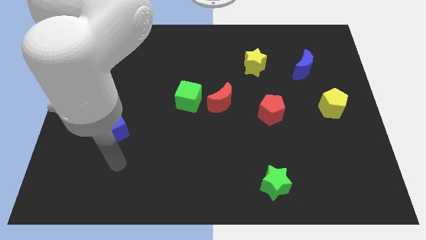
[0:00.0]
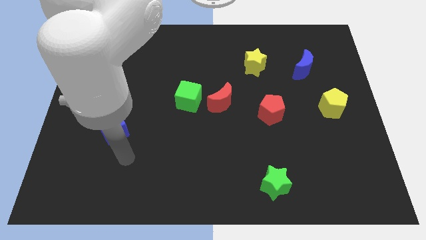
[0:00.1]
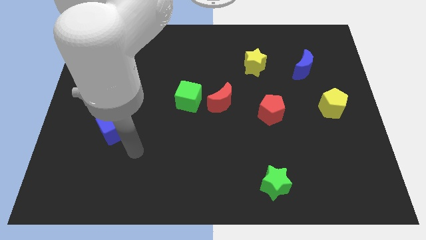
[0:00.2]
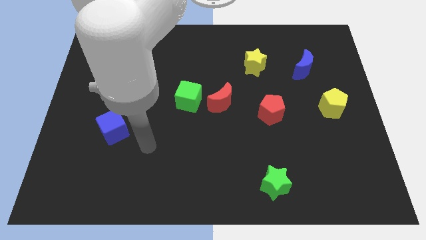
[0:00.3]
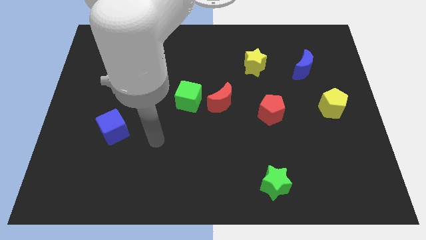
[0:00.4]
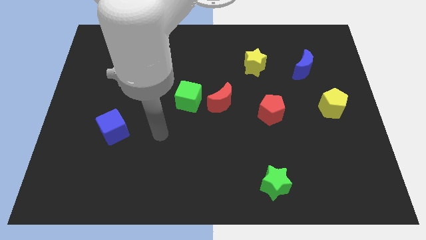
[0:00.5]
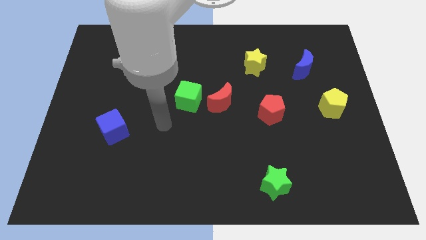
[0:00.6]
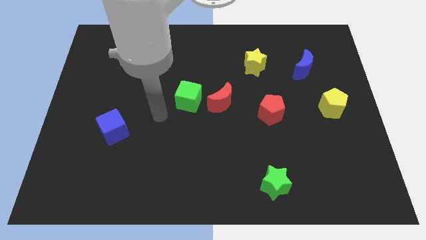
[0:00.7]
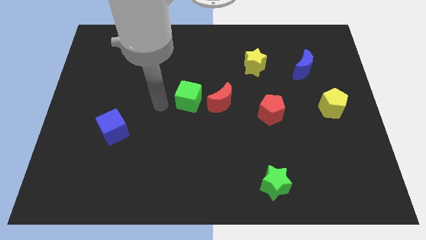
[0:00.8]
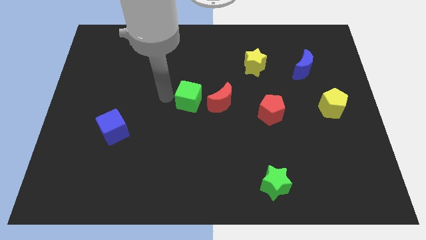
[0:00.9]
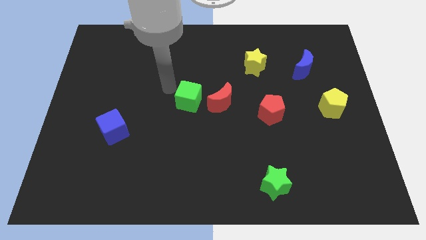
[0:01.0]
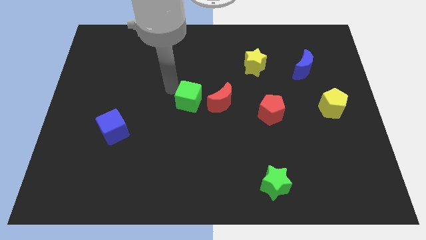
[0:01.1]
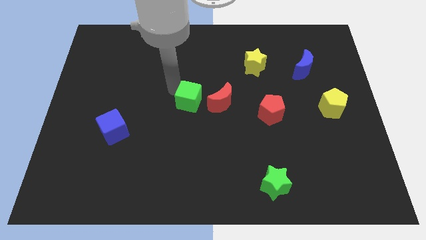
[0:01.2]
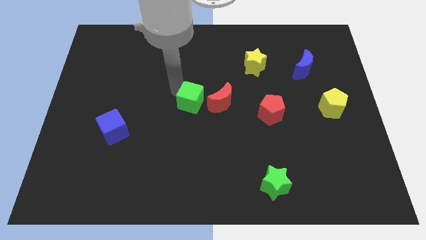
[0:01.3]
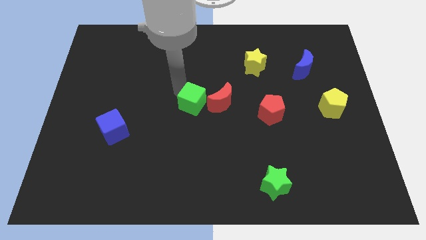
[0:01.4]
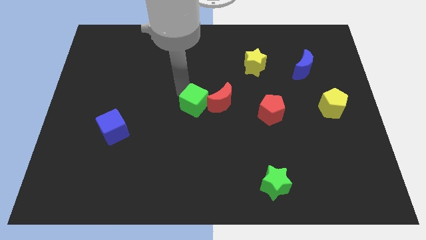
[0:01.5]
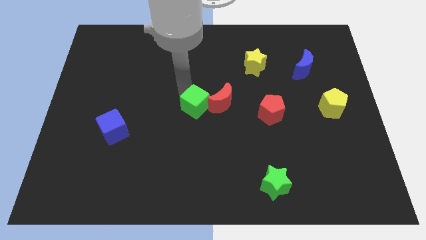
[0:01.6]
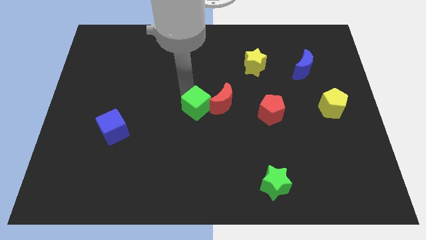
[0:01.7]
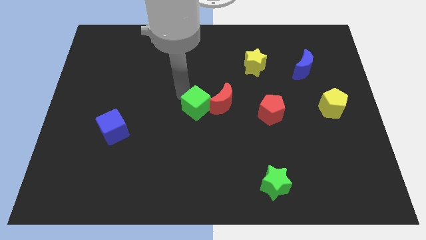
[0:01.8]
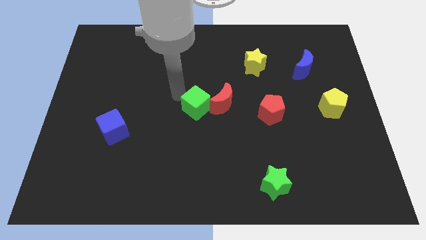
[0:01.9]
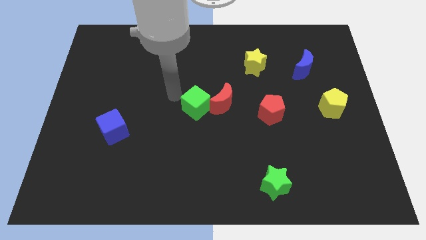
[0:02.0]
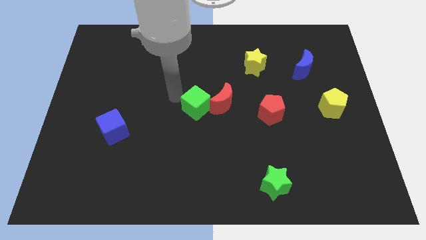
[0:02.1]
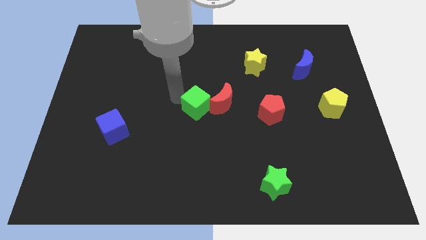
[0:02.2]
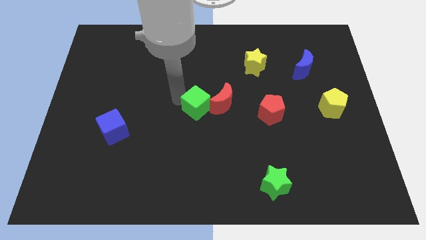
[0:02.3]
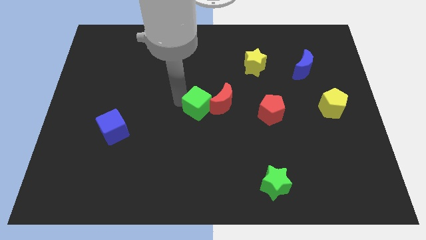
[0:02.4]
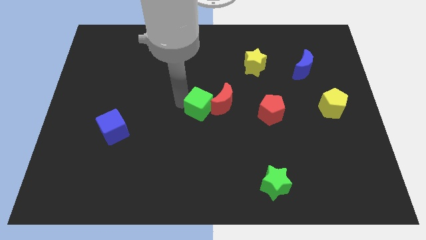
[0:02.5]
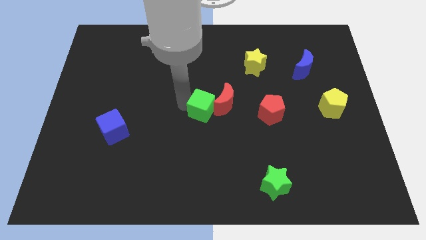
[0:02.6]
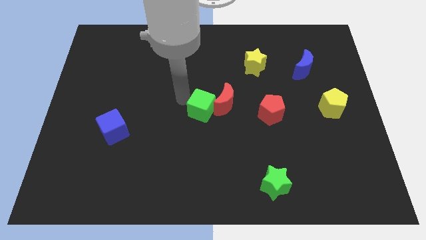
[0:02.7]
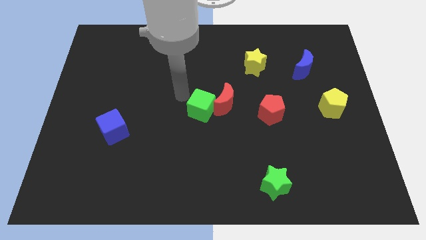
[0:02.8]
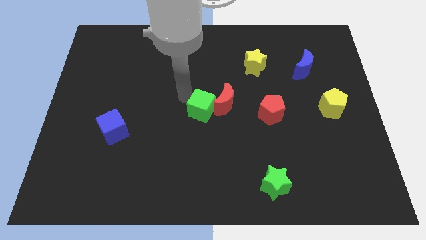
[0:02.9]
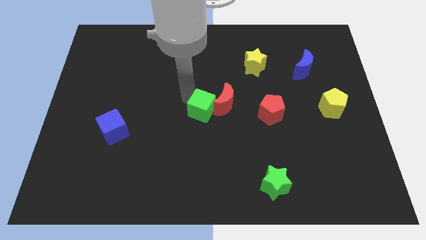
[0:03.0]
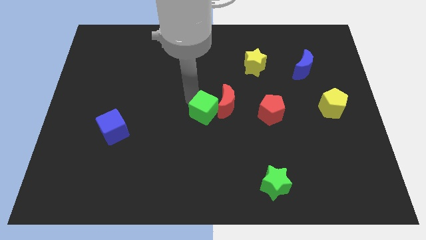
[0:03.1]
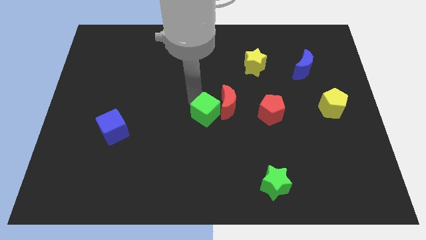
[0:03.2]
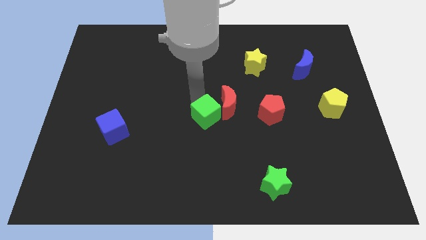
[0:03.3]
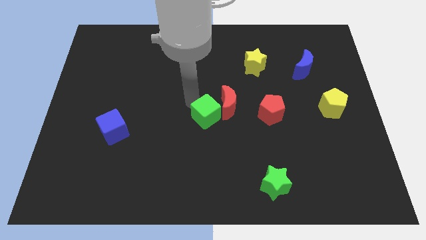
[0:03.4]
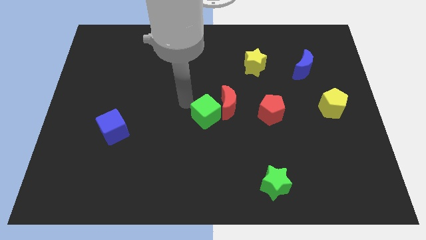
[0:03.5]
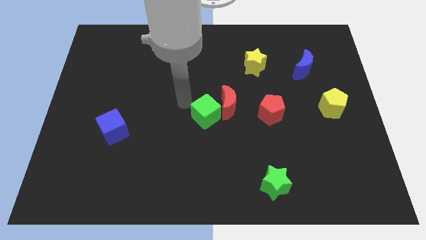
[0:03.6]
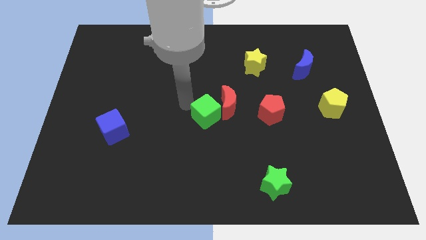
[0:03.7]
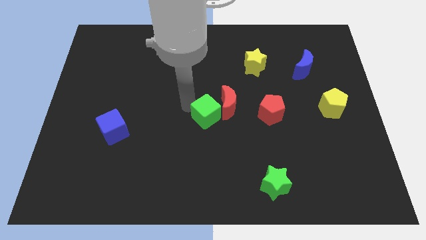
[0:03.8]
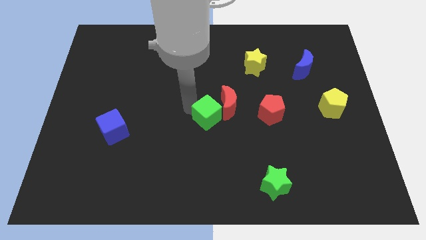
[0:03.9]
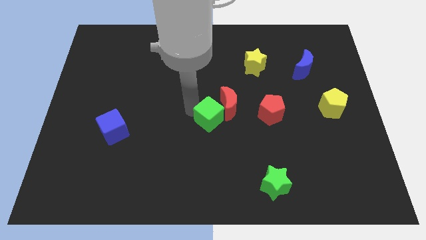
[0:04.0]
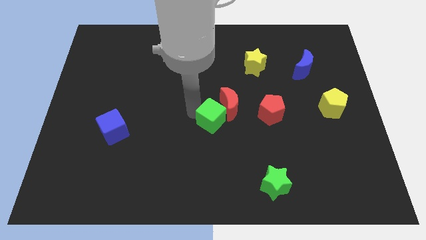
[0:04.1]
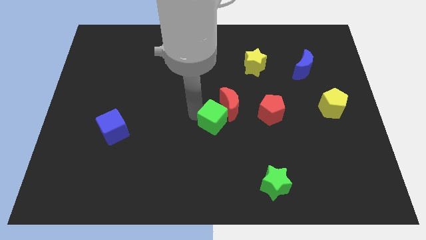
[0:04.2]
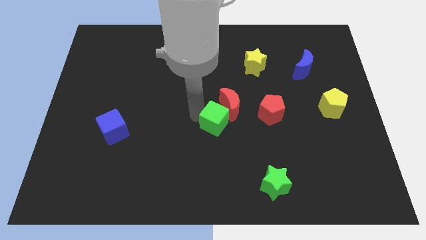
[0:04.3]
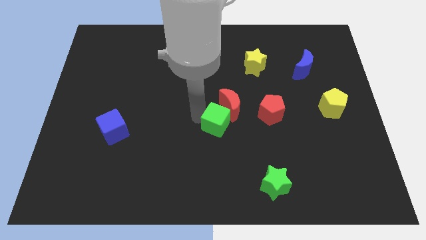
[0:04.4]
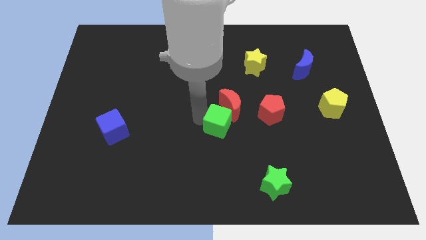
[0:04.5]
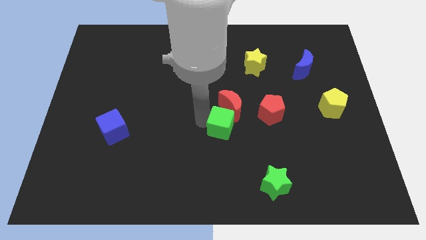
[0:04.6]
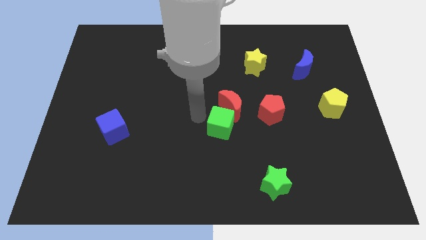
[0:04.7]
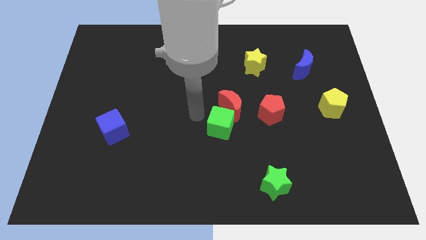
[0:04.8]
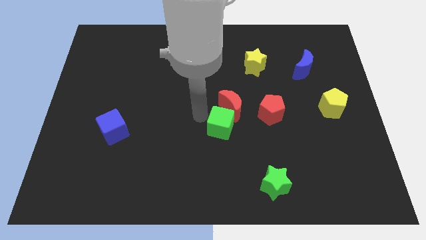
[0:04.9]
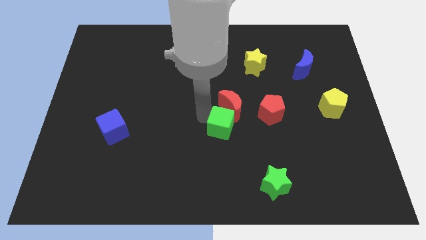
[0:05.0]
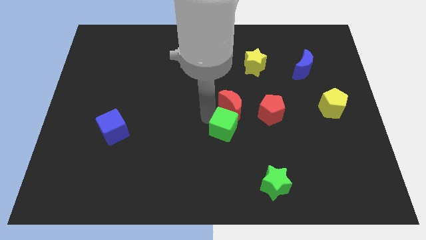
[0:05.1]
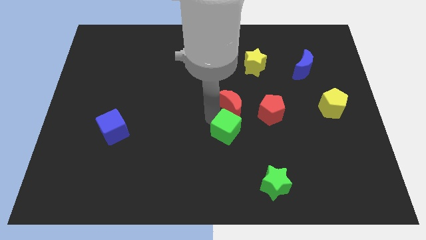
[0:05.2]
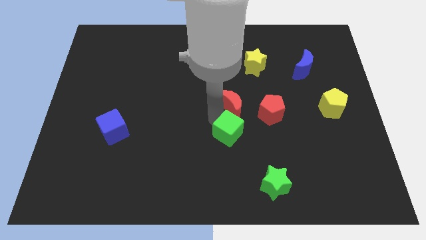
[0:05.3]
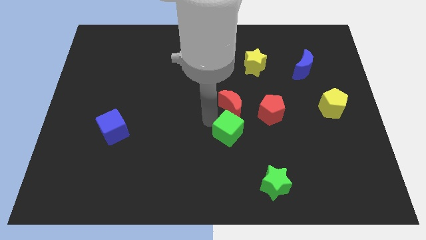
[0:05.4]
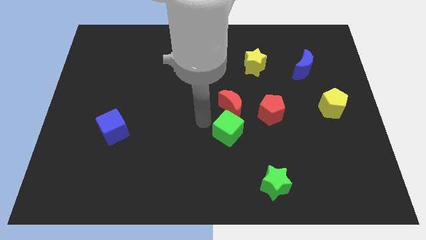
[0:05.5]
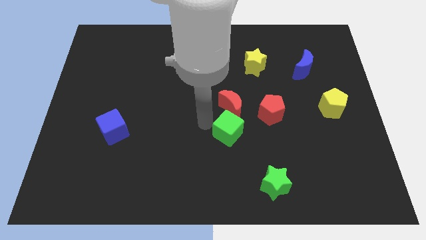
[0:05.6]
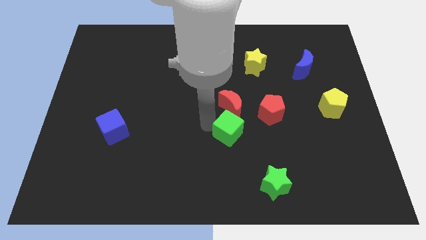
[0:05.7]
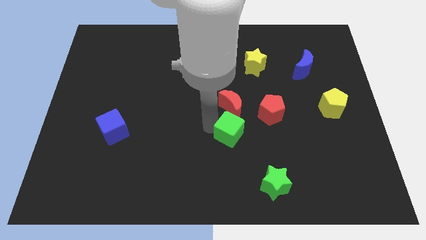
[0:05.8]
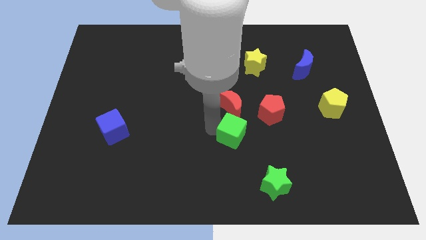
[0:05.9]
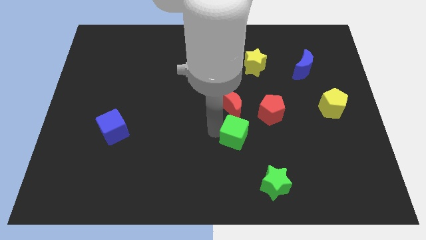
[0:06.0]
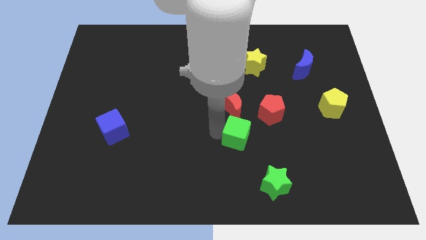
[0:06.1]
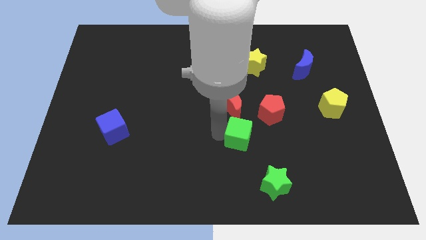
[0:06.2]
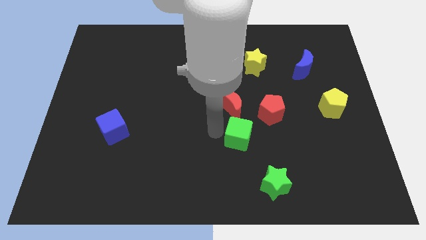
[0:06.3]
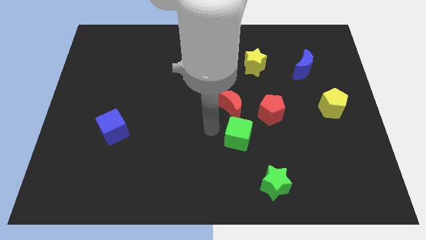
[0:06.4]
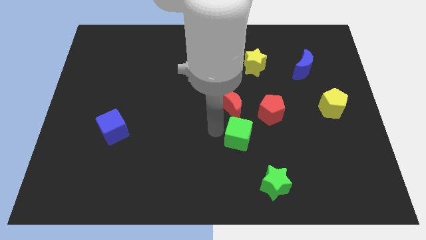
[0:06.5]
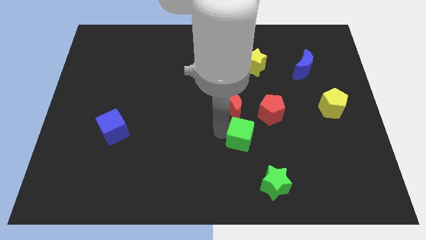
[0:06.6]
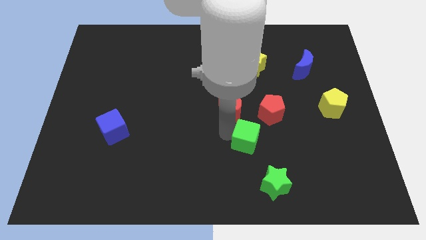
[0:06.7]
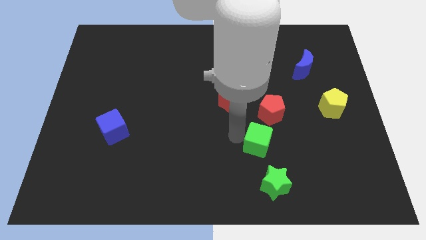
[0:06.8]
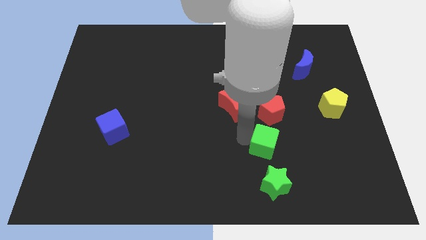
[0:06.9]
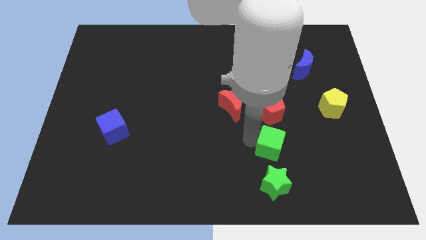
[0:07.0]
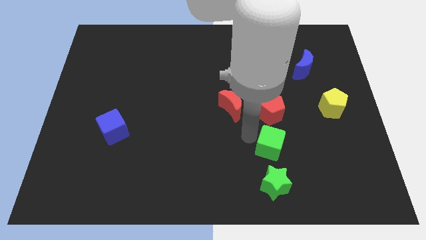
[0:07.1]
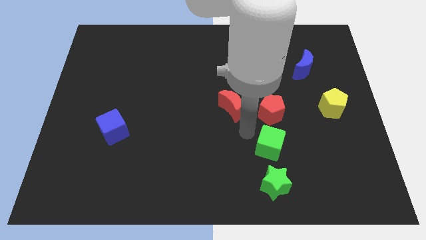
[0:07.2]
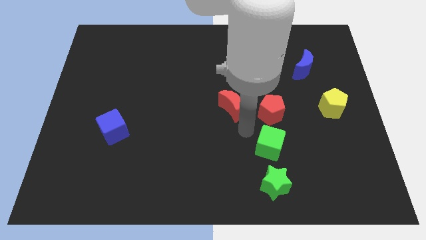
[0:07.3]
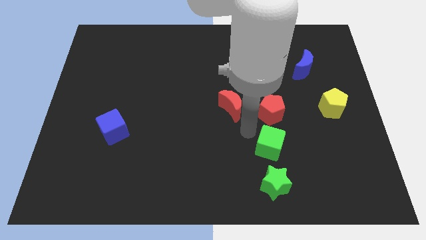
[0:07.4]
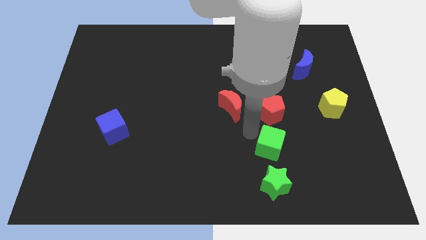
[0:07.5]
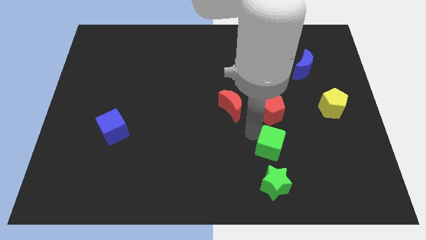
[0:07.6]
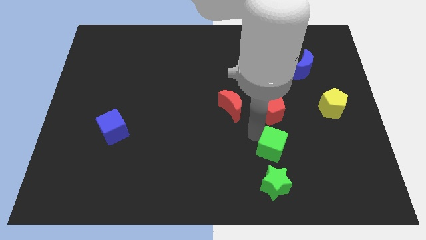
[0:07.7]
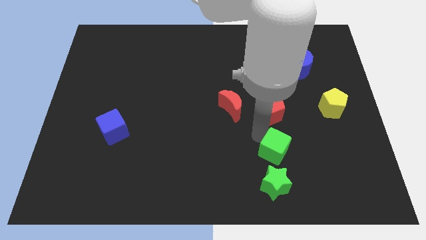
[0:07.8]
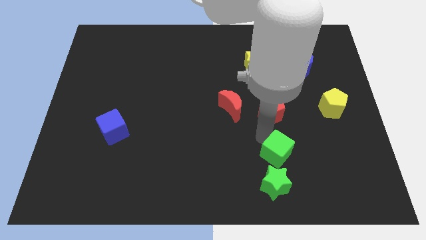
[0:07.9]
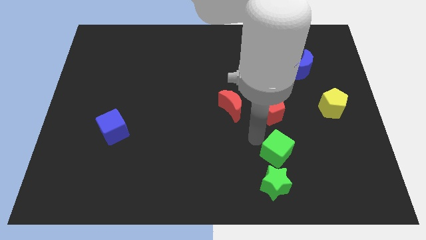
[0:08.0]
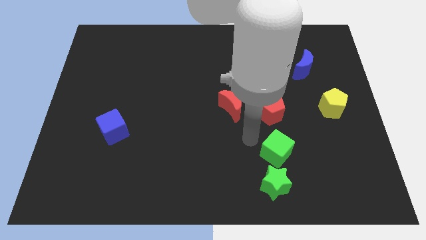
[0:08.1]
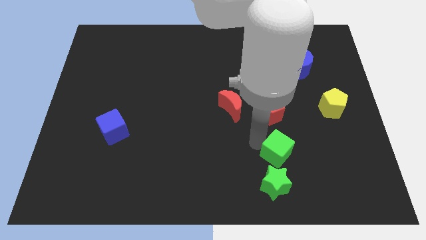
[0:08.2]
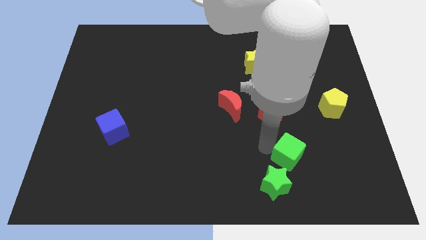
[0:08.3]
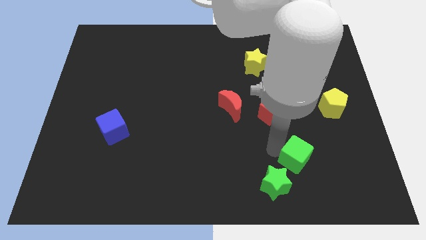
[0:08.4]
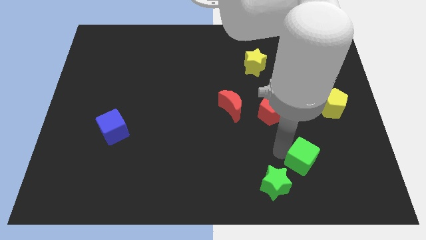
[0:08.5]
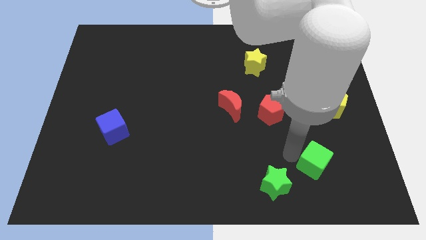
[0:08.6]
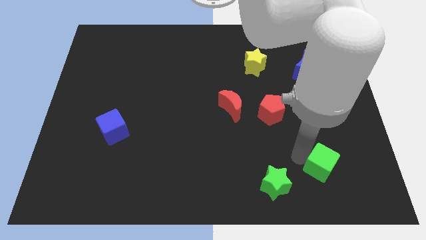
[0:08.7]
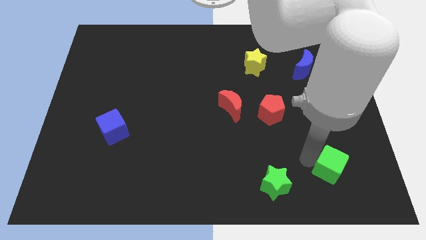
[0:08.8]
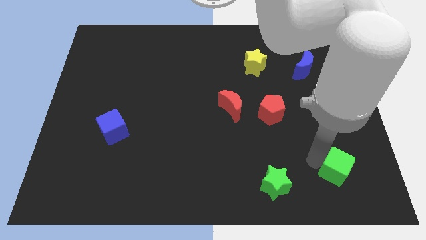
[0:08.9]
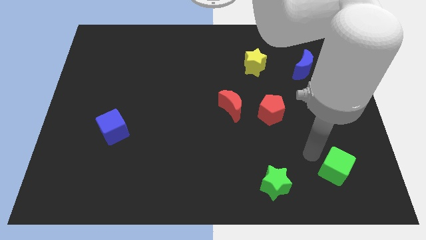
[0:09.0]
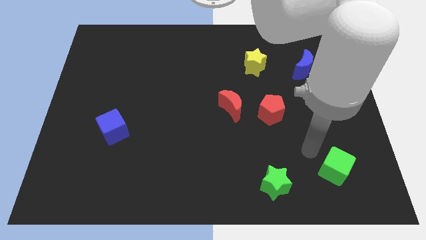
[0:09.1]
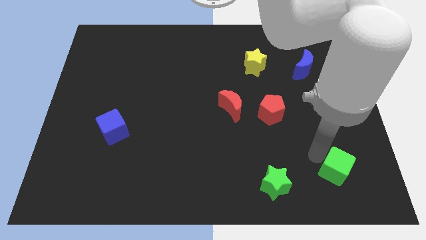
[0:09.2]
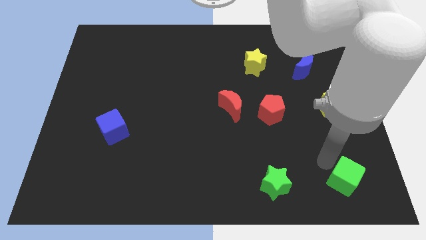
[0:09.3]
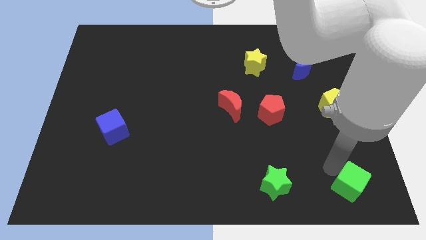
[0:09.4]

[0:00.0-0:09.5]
put the green cube to the lower right corner
